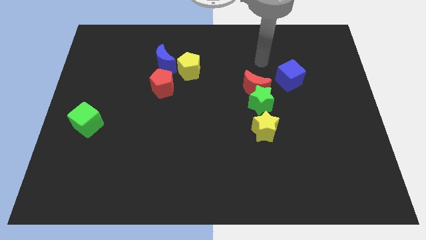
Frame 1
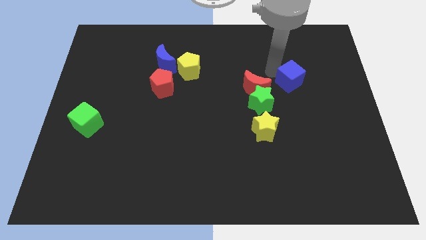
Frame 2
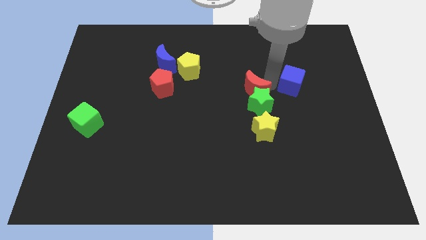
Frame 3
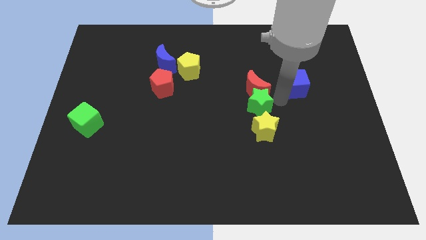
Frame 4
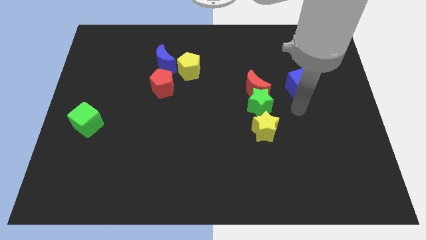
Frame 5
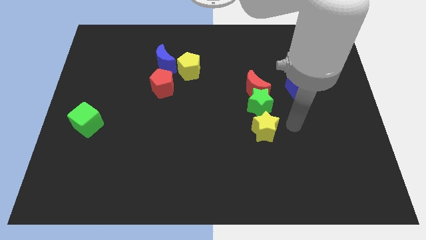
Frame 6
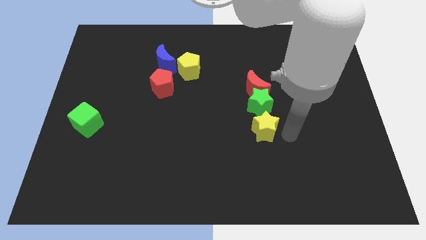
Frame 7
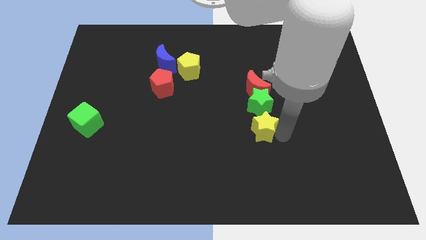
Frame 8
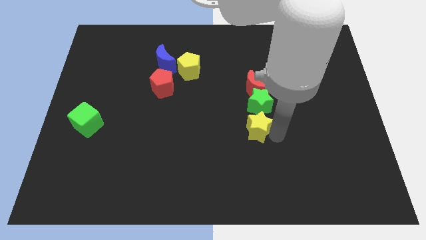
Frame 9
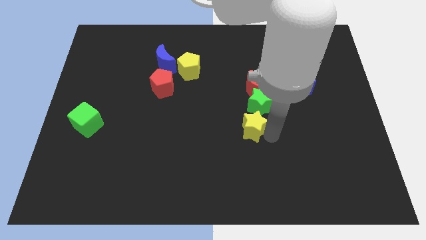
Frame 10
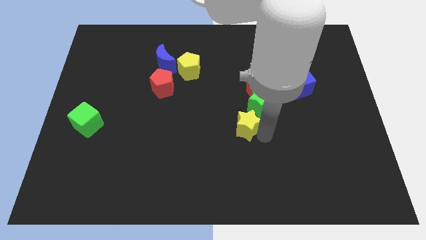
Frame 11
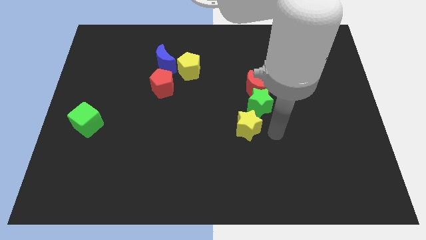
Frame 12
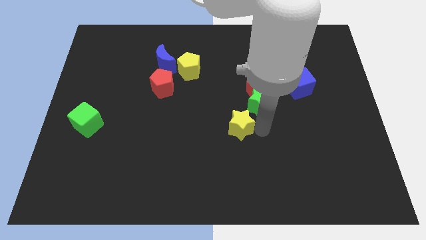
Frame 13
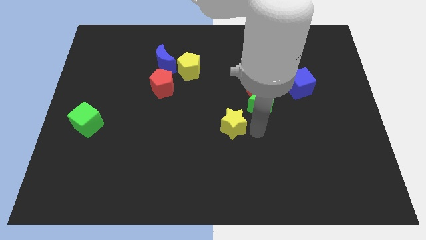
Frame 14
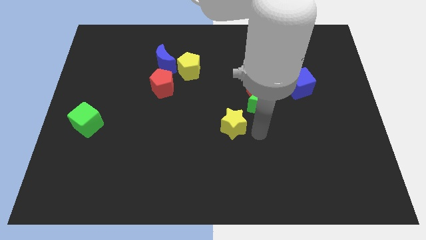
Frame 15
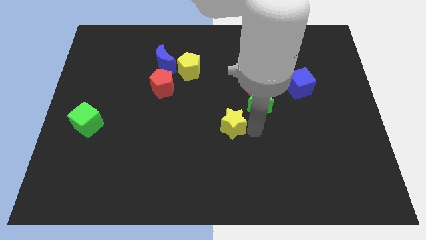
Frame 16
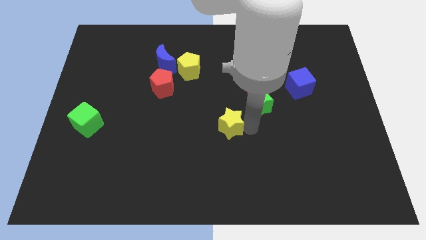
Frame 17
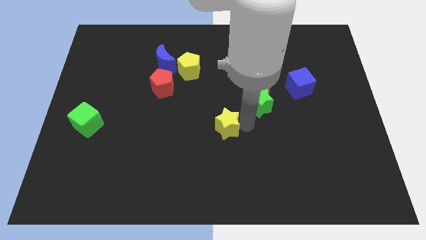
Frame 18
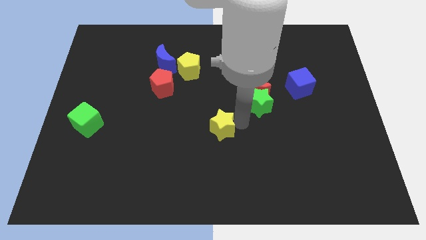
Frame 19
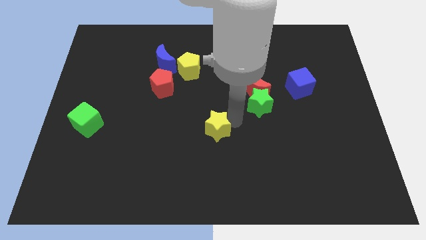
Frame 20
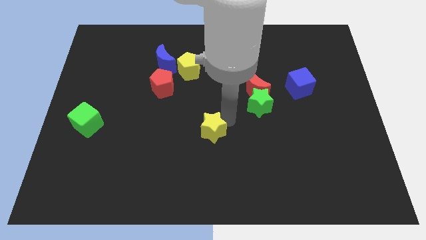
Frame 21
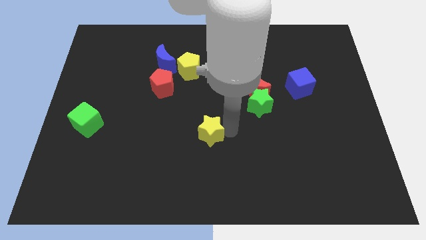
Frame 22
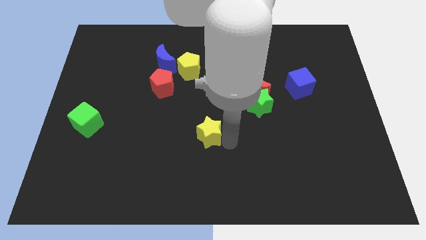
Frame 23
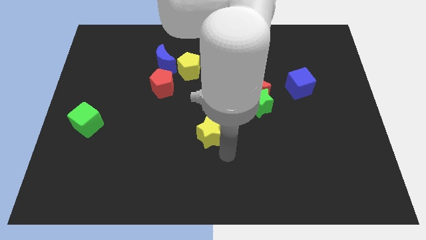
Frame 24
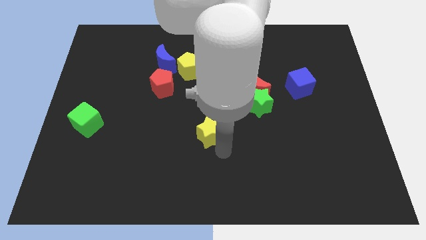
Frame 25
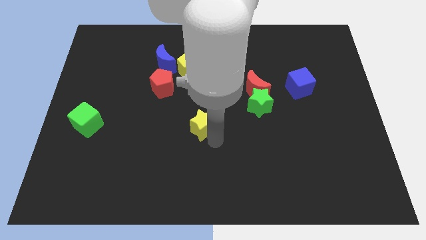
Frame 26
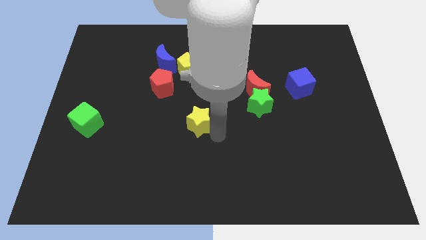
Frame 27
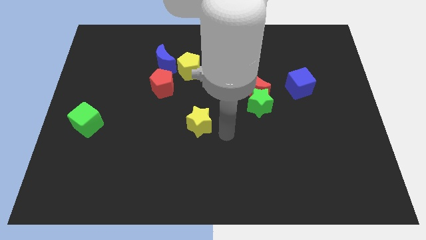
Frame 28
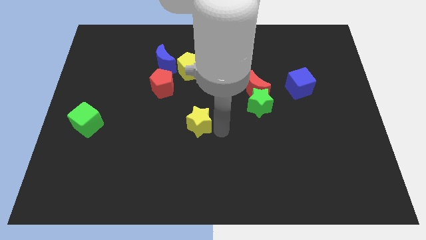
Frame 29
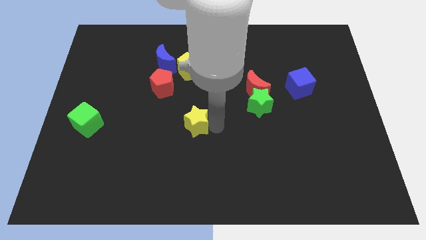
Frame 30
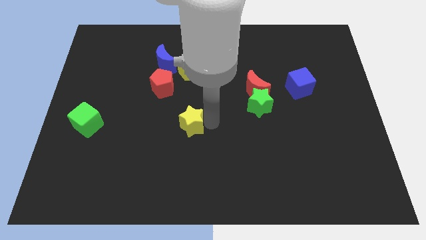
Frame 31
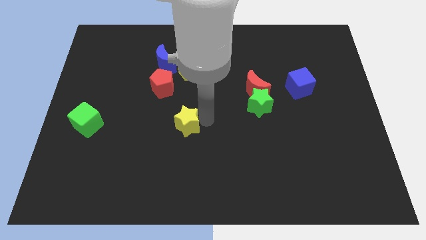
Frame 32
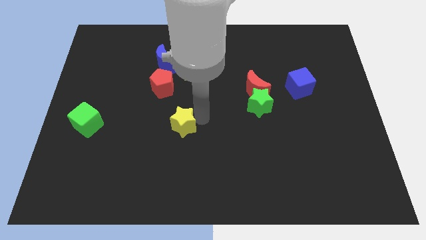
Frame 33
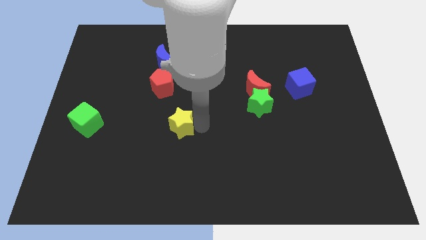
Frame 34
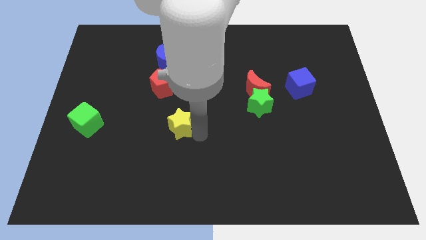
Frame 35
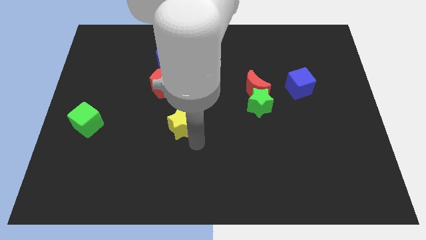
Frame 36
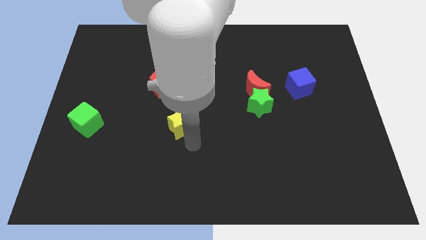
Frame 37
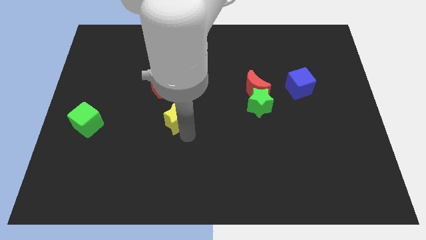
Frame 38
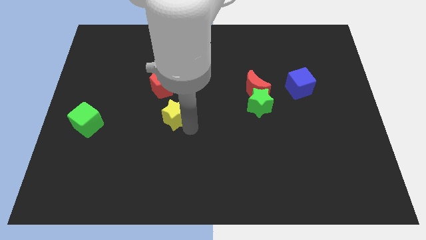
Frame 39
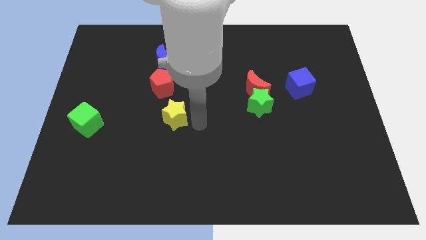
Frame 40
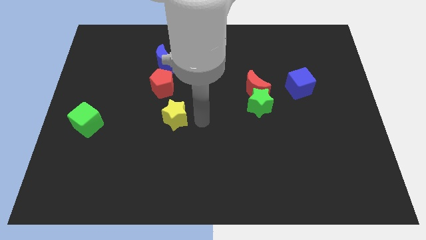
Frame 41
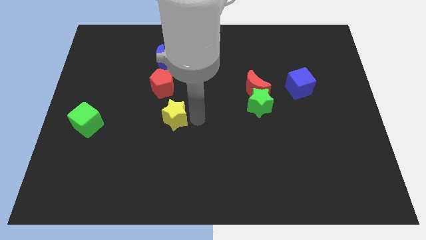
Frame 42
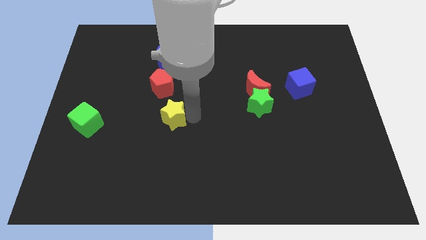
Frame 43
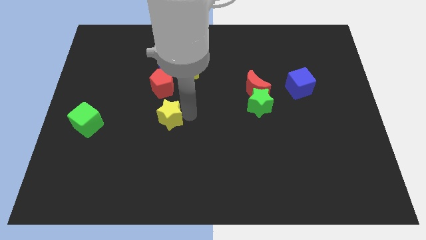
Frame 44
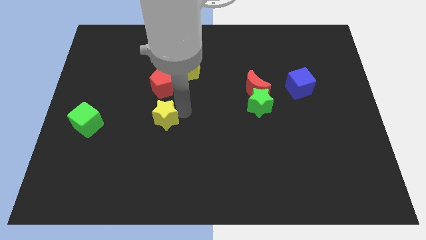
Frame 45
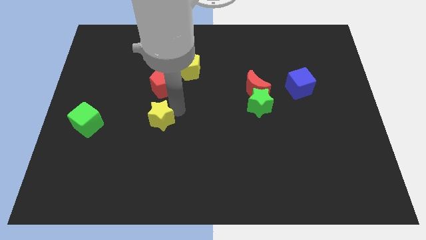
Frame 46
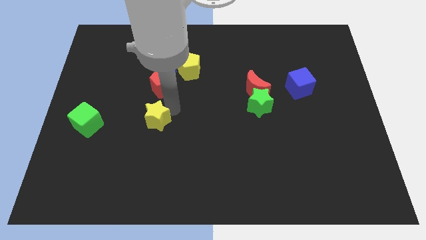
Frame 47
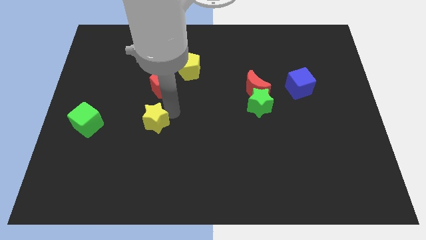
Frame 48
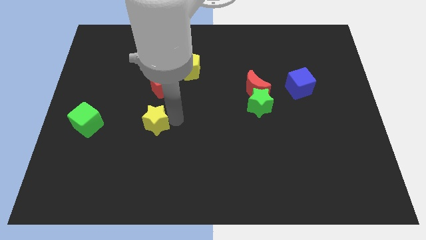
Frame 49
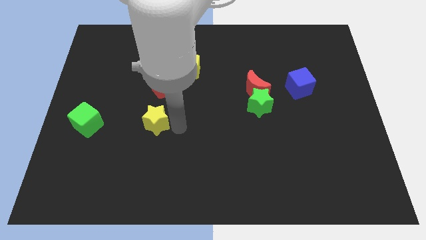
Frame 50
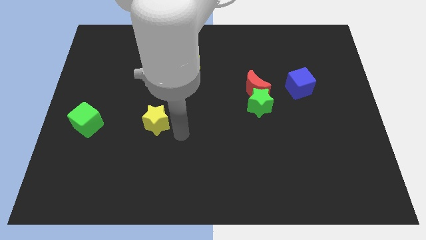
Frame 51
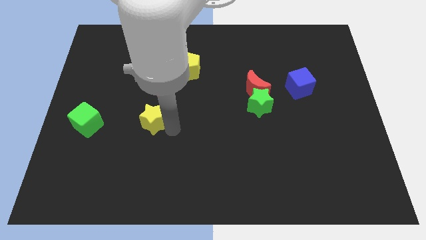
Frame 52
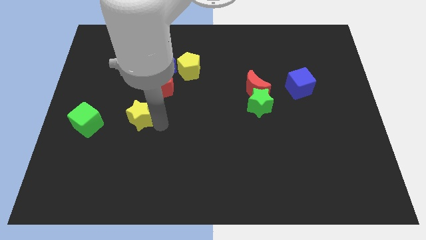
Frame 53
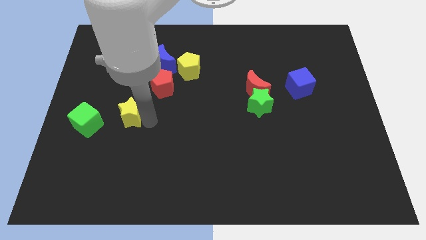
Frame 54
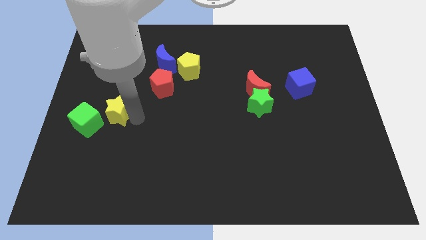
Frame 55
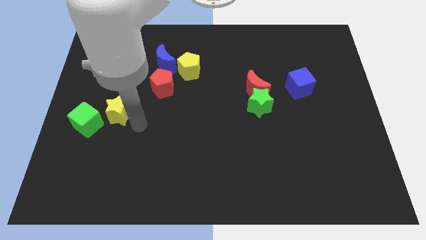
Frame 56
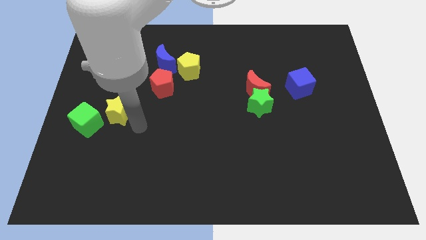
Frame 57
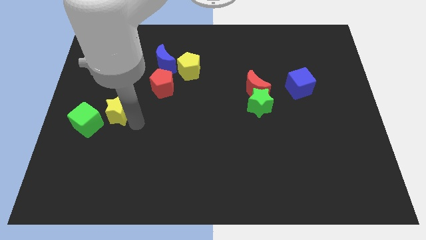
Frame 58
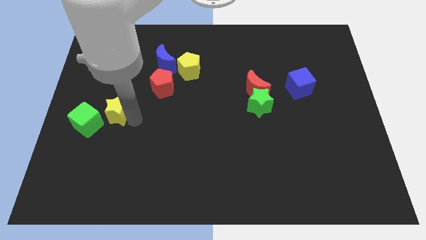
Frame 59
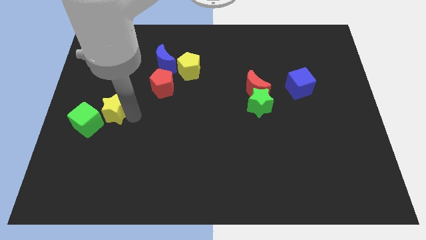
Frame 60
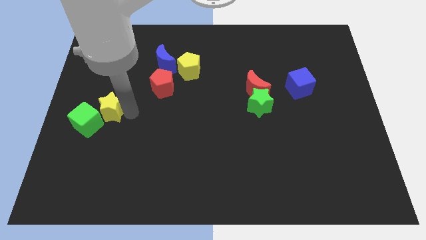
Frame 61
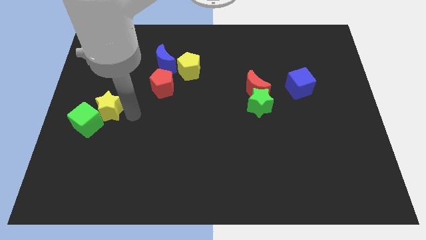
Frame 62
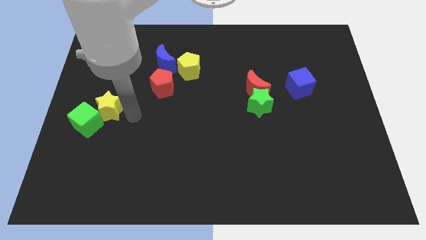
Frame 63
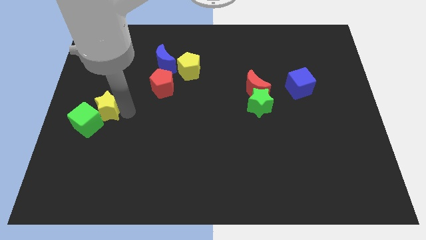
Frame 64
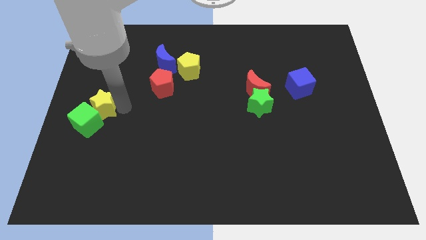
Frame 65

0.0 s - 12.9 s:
move the yellow star to the left side
